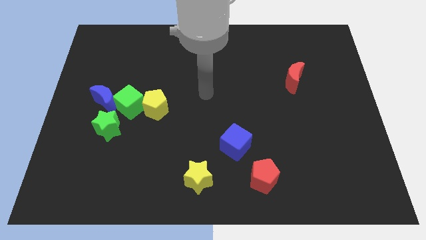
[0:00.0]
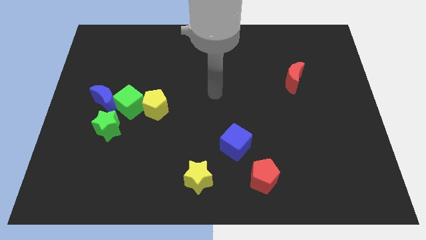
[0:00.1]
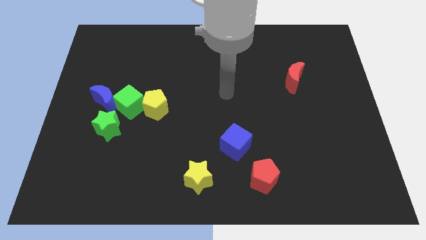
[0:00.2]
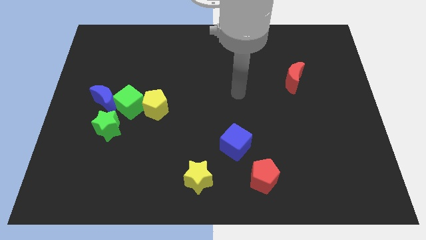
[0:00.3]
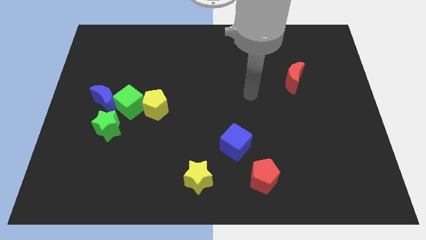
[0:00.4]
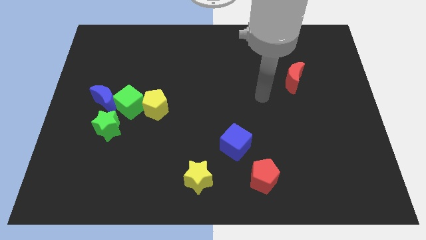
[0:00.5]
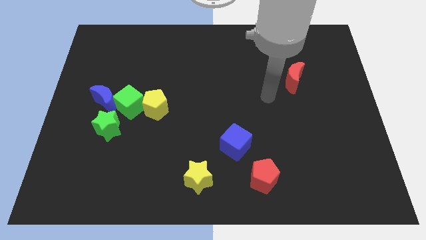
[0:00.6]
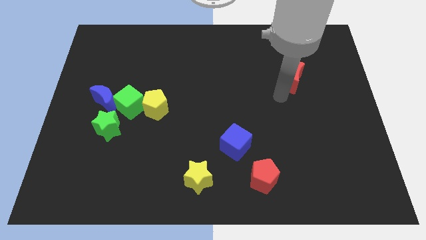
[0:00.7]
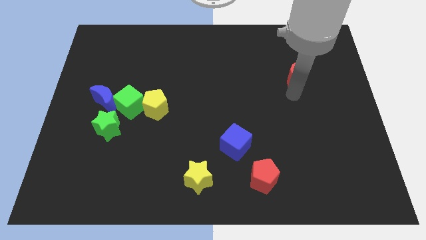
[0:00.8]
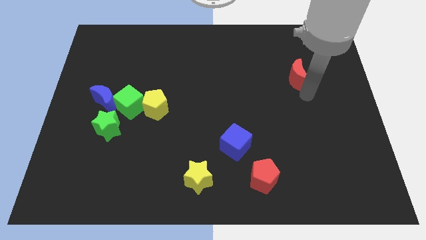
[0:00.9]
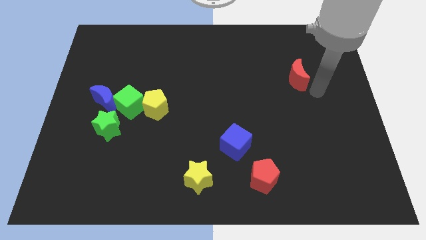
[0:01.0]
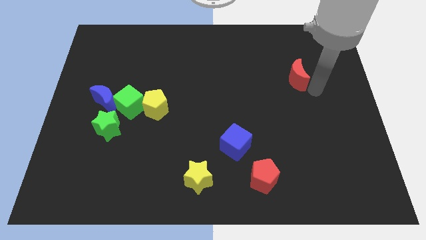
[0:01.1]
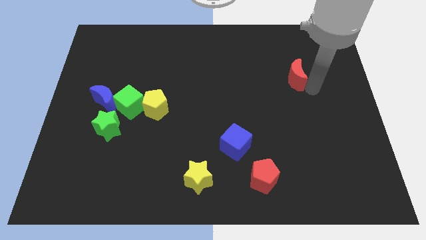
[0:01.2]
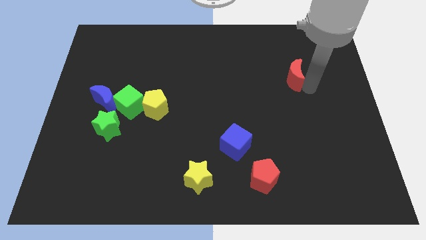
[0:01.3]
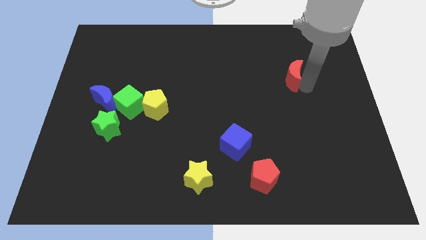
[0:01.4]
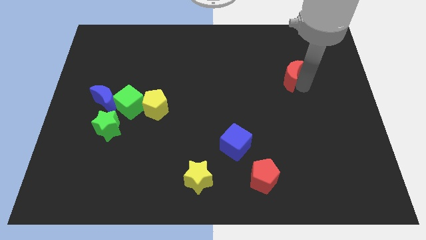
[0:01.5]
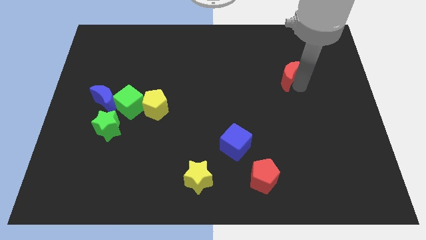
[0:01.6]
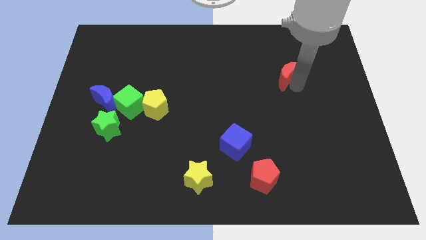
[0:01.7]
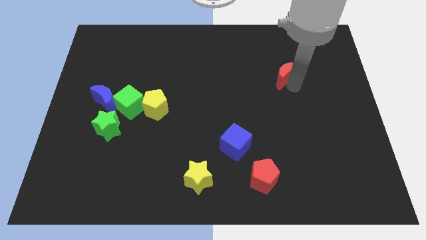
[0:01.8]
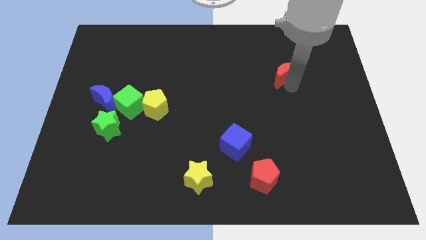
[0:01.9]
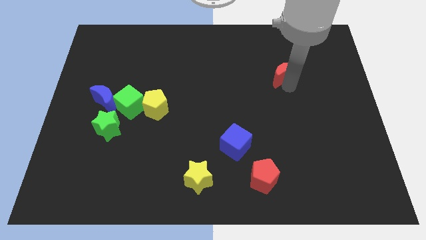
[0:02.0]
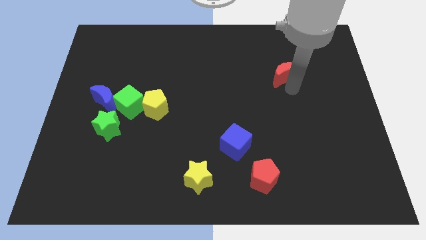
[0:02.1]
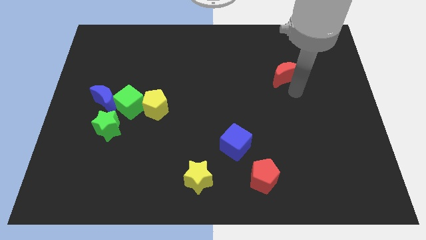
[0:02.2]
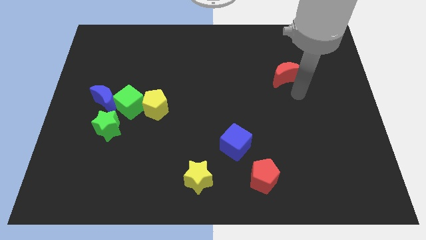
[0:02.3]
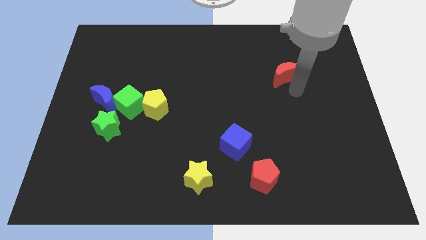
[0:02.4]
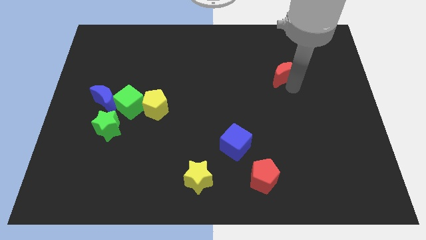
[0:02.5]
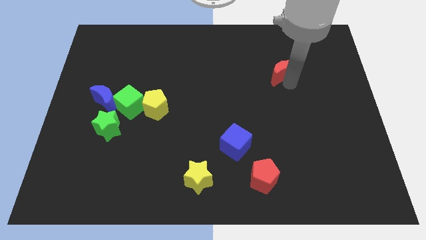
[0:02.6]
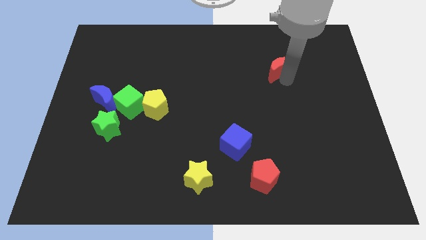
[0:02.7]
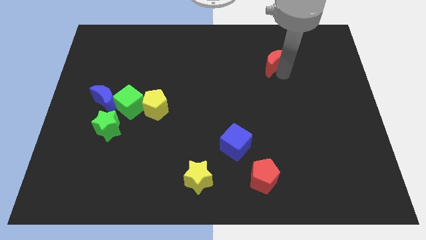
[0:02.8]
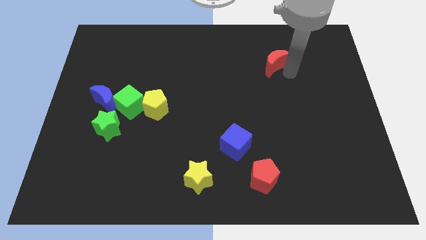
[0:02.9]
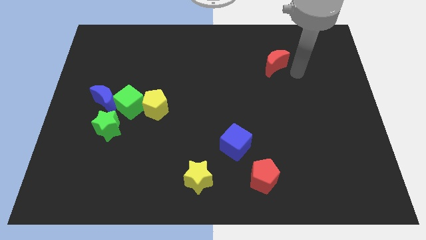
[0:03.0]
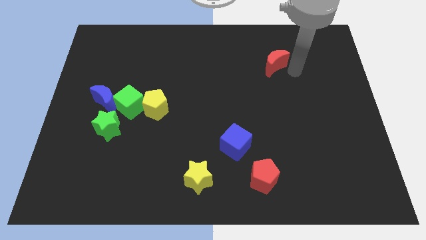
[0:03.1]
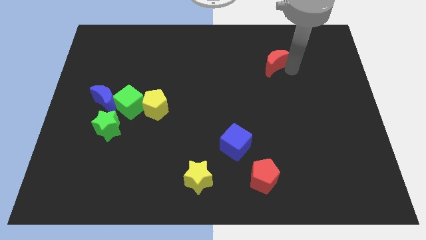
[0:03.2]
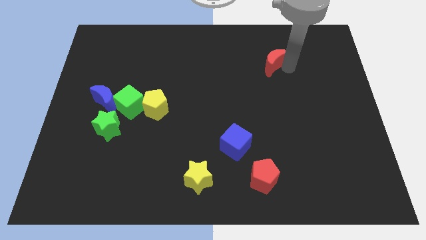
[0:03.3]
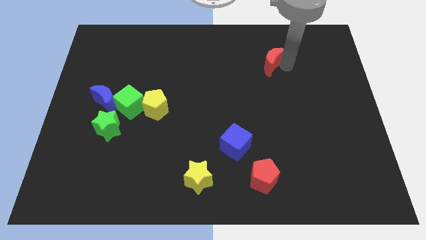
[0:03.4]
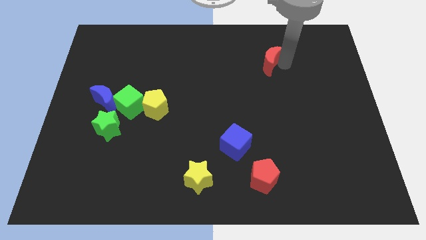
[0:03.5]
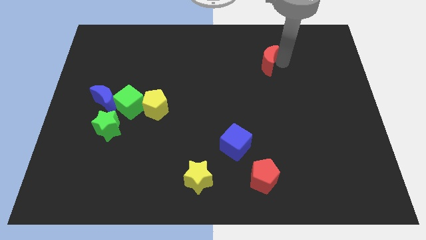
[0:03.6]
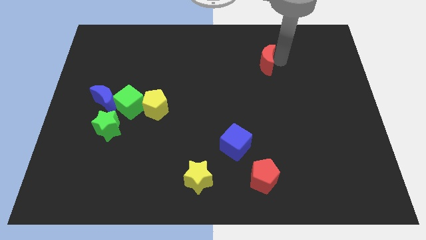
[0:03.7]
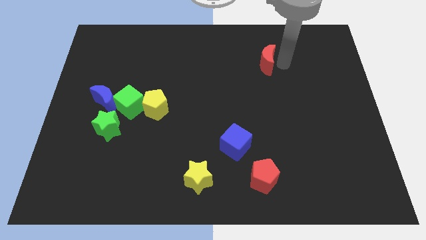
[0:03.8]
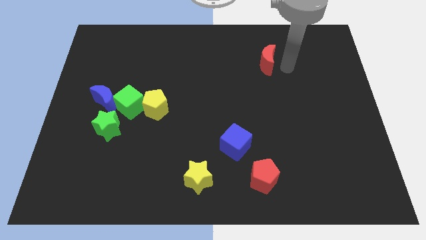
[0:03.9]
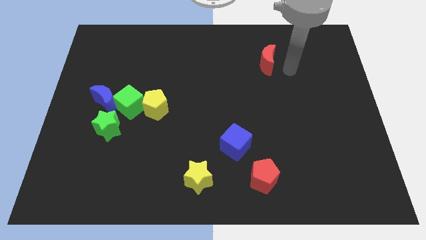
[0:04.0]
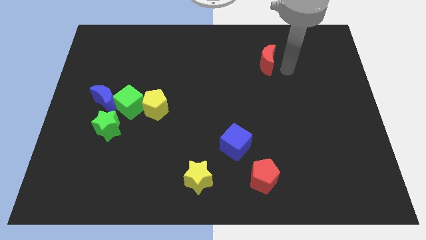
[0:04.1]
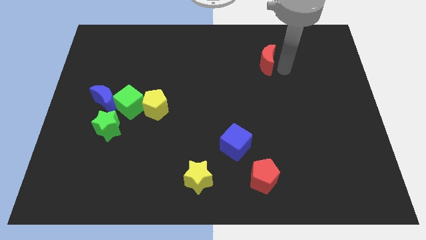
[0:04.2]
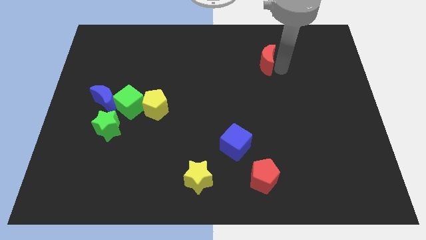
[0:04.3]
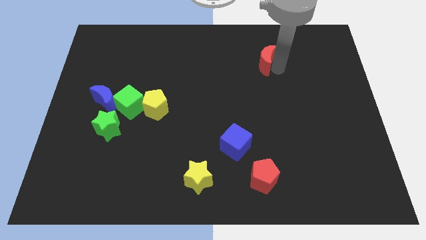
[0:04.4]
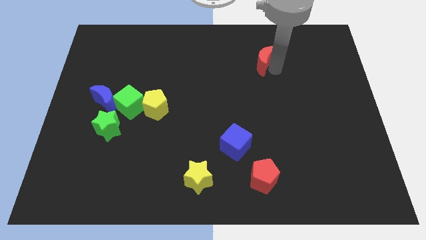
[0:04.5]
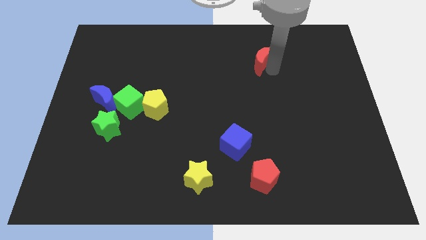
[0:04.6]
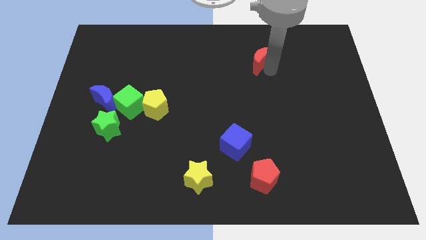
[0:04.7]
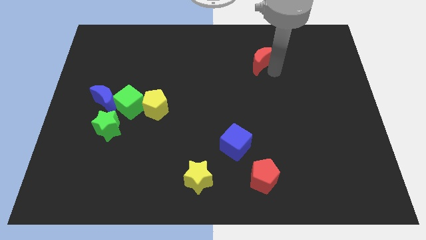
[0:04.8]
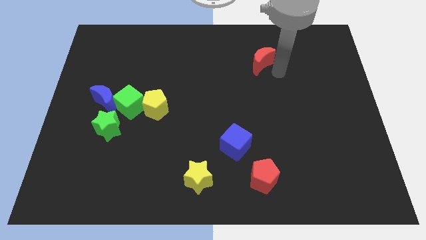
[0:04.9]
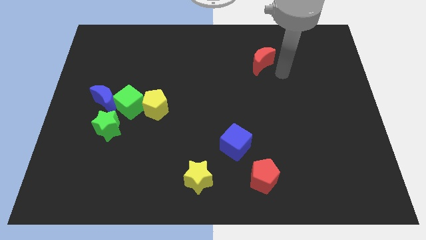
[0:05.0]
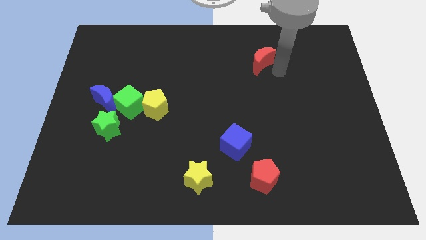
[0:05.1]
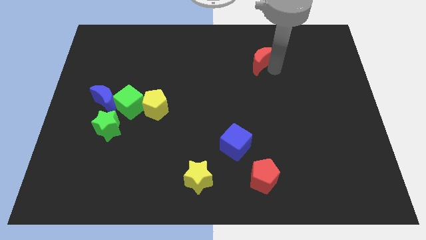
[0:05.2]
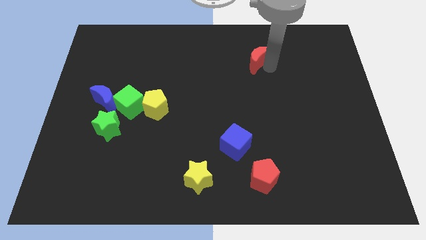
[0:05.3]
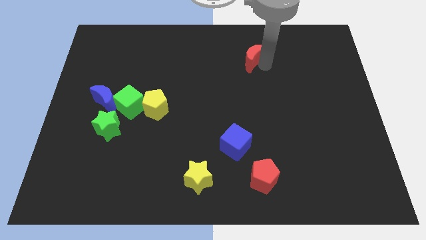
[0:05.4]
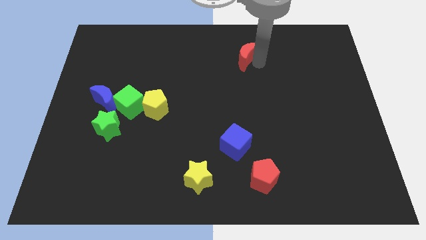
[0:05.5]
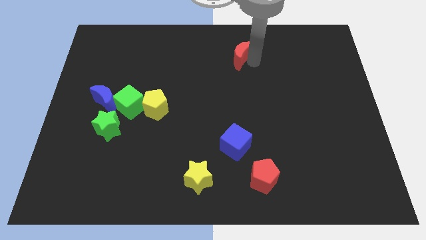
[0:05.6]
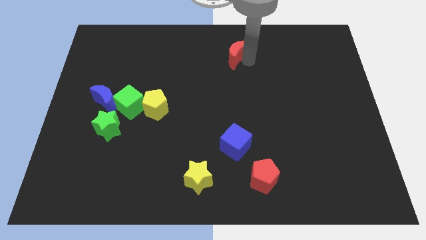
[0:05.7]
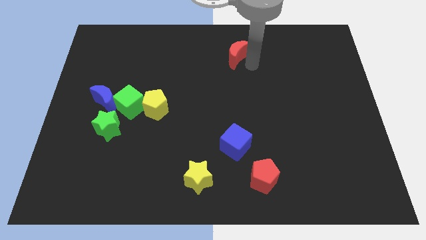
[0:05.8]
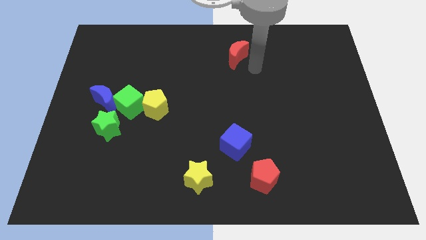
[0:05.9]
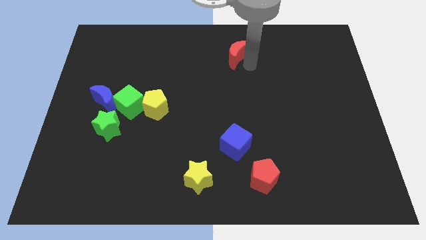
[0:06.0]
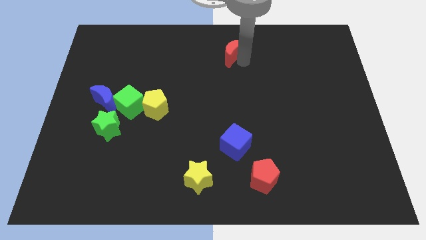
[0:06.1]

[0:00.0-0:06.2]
push the red moon to the top side
